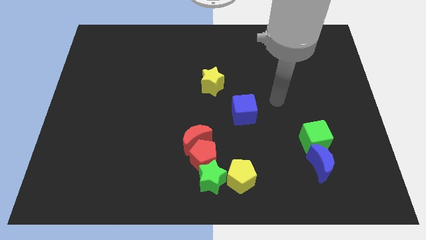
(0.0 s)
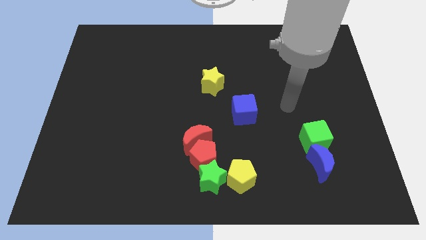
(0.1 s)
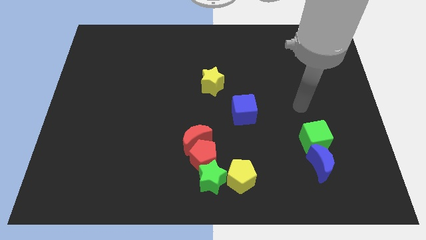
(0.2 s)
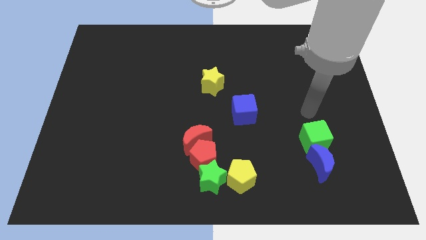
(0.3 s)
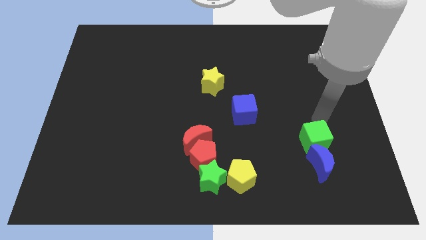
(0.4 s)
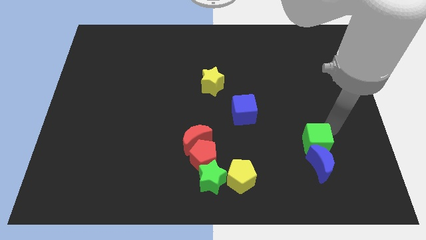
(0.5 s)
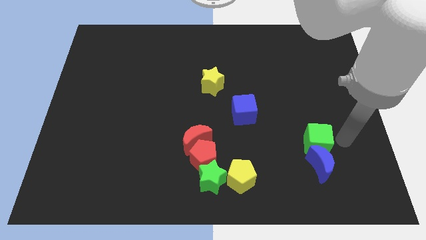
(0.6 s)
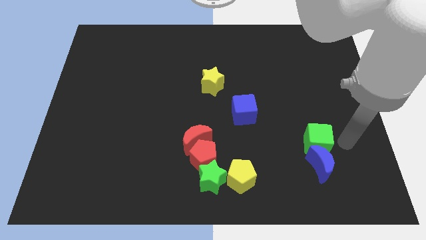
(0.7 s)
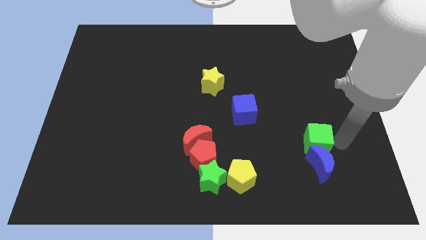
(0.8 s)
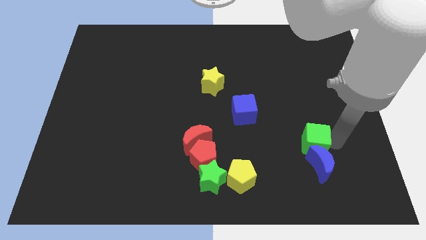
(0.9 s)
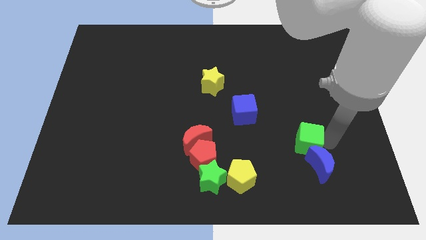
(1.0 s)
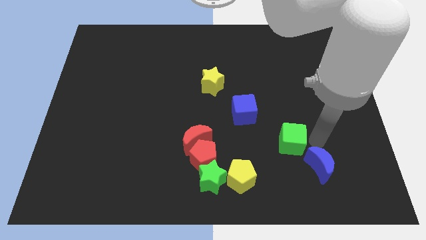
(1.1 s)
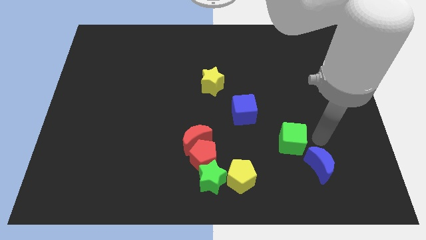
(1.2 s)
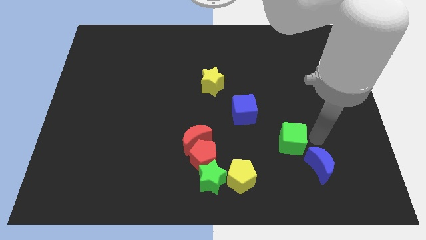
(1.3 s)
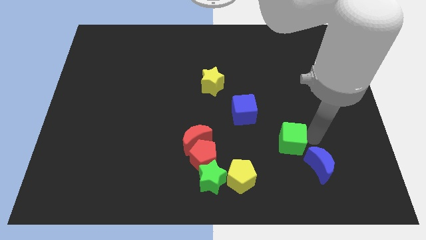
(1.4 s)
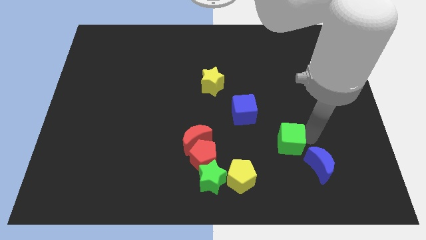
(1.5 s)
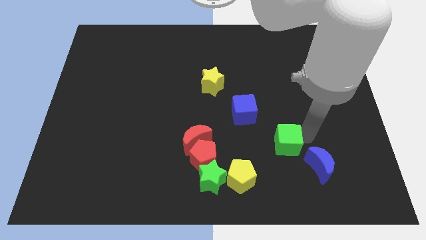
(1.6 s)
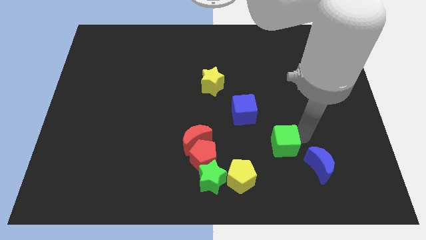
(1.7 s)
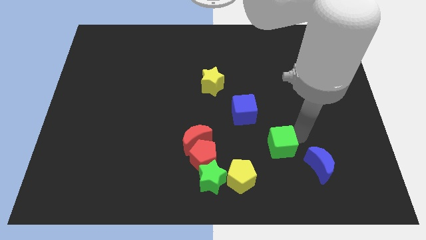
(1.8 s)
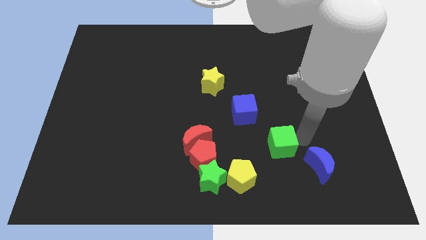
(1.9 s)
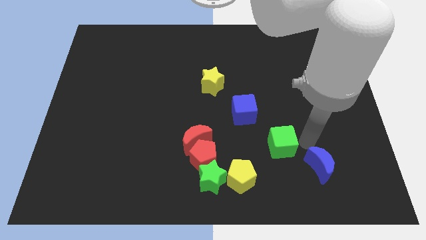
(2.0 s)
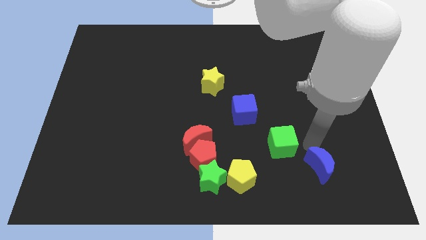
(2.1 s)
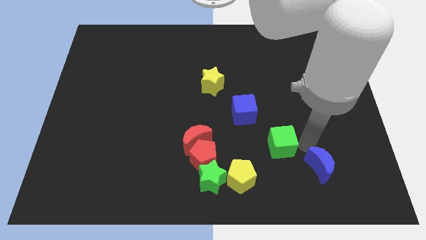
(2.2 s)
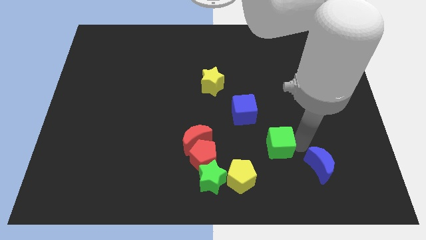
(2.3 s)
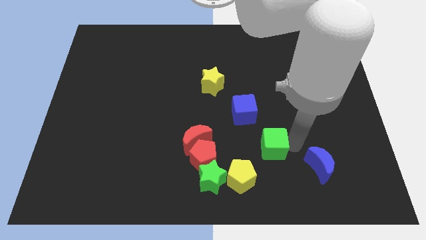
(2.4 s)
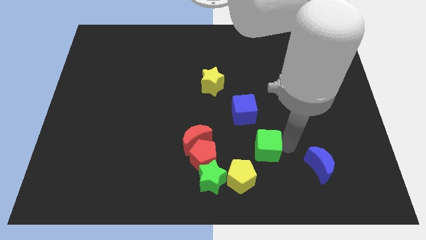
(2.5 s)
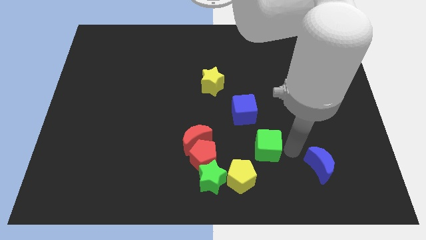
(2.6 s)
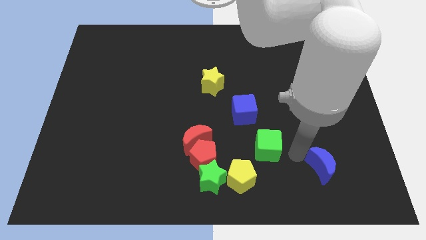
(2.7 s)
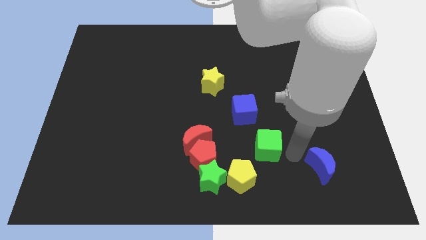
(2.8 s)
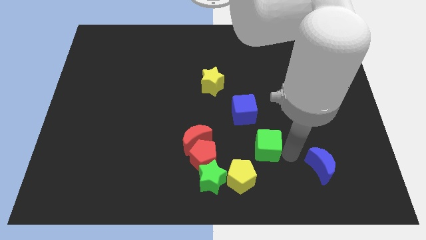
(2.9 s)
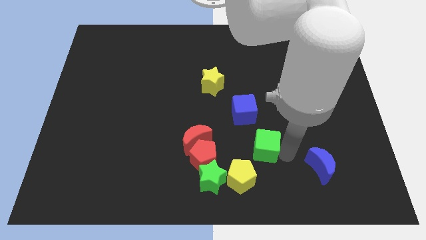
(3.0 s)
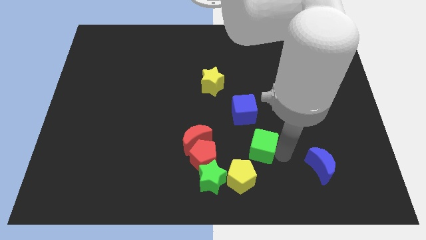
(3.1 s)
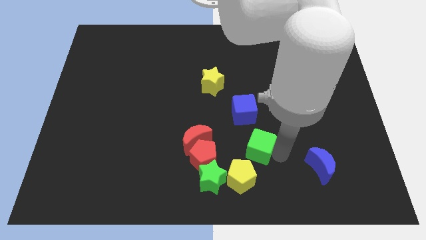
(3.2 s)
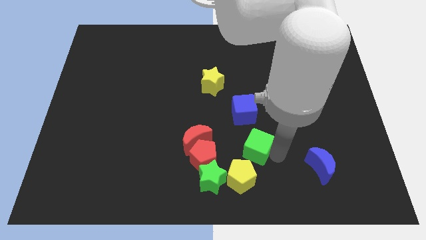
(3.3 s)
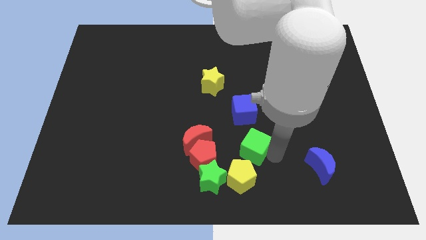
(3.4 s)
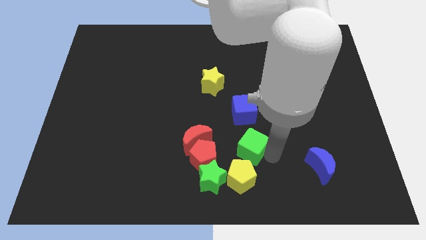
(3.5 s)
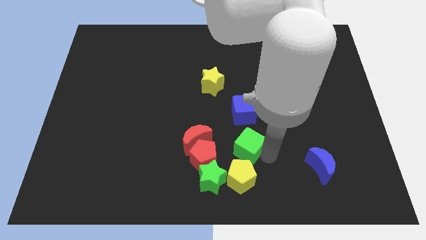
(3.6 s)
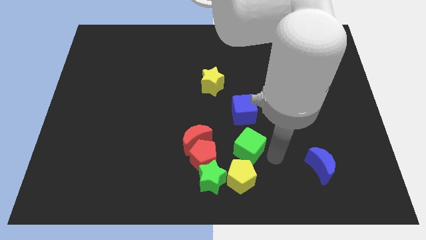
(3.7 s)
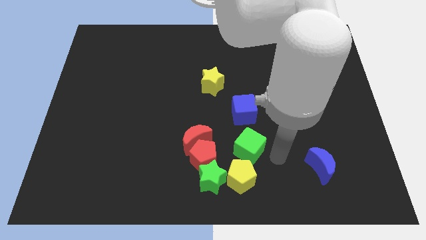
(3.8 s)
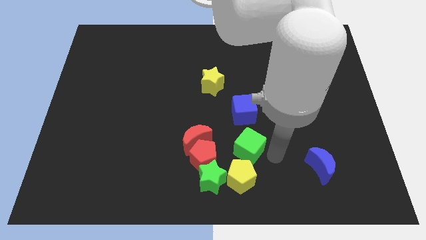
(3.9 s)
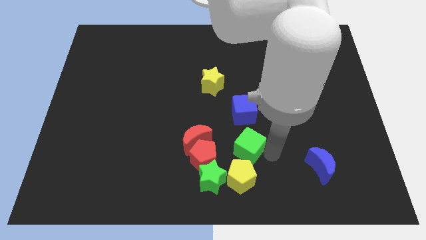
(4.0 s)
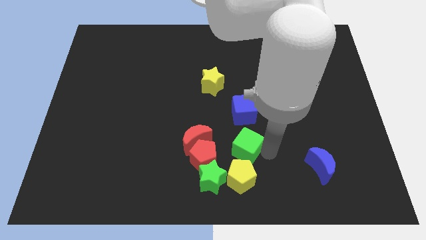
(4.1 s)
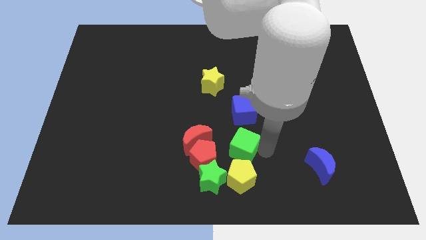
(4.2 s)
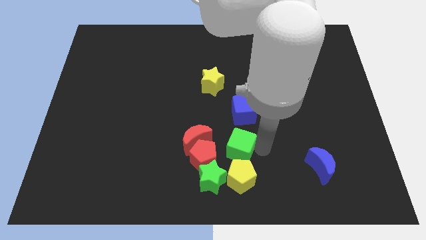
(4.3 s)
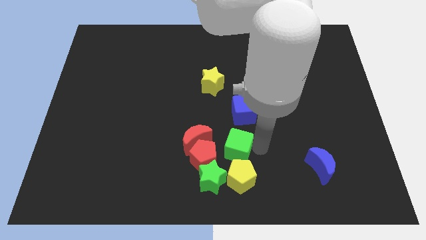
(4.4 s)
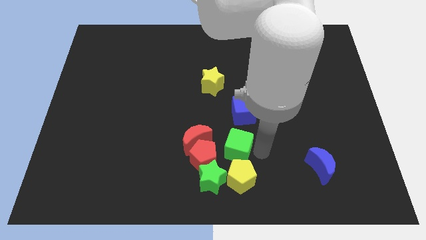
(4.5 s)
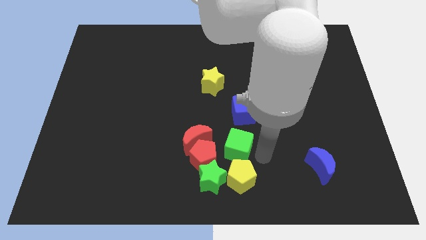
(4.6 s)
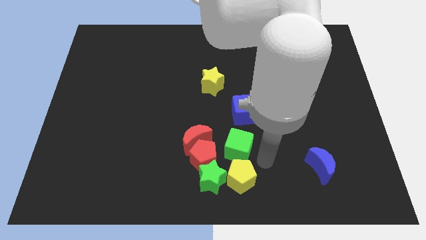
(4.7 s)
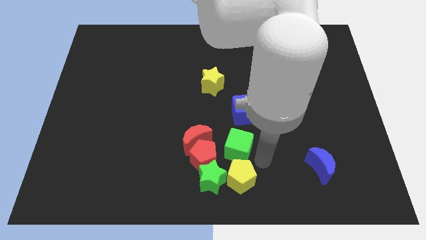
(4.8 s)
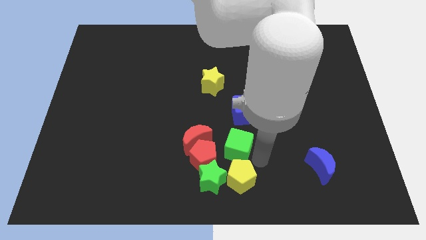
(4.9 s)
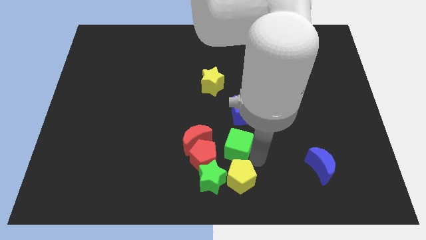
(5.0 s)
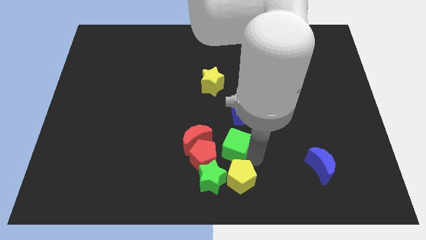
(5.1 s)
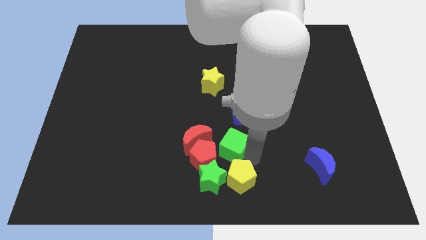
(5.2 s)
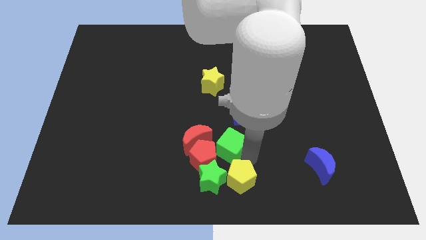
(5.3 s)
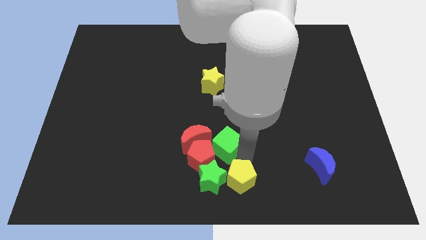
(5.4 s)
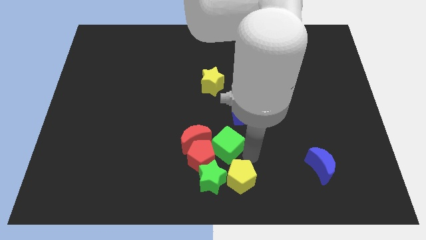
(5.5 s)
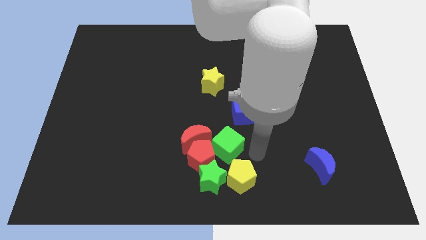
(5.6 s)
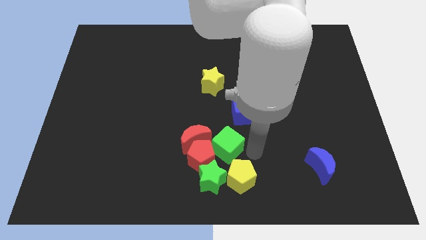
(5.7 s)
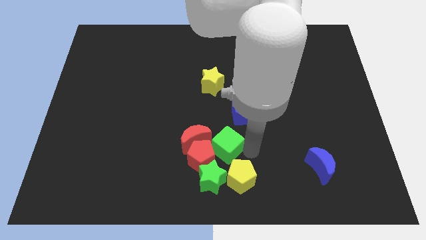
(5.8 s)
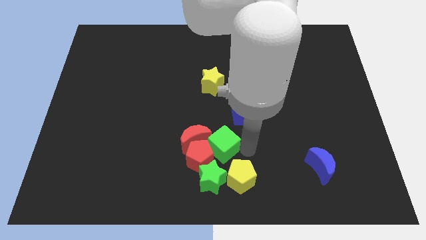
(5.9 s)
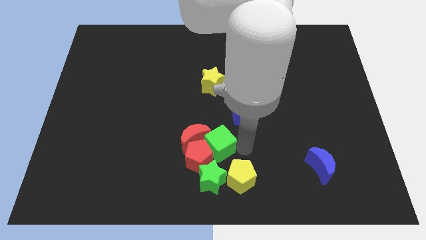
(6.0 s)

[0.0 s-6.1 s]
put the green cube close to the red moon
